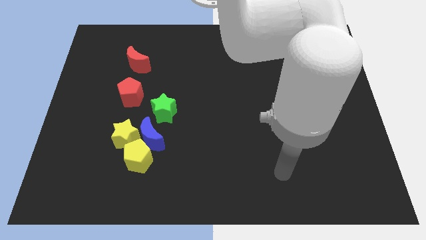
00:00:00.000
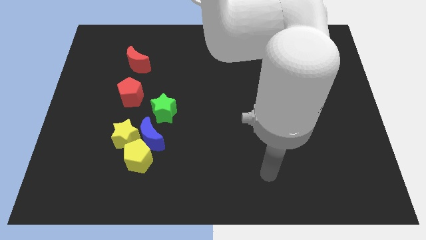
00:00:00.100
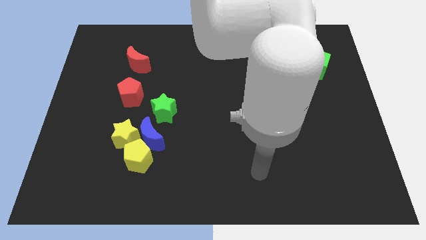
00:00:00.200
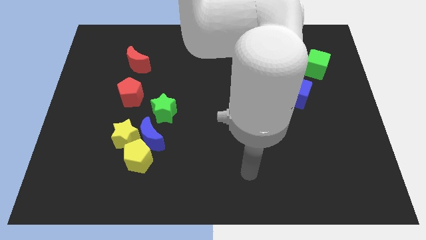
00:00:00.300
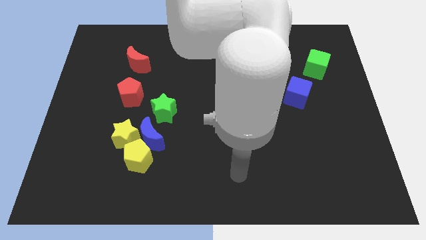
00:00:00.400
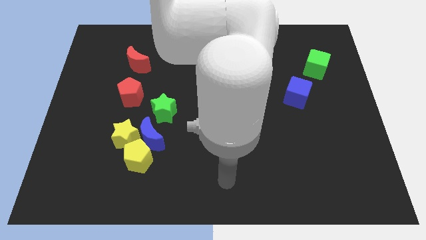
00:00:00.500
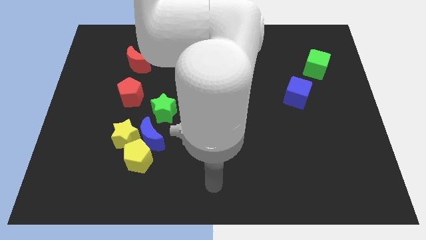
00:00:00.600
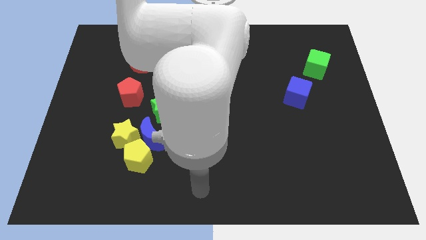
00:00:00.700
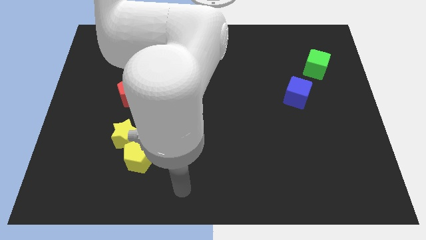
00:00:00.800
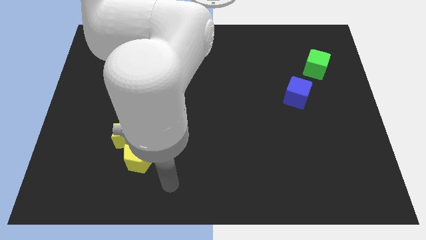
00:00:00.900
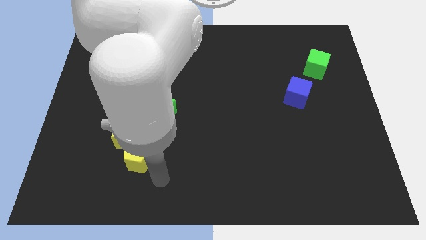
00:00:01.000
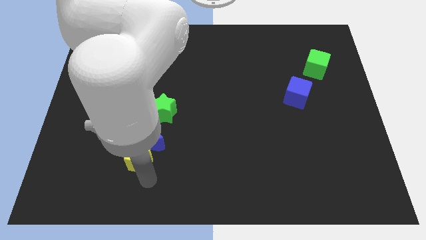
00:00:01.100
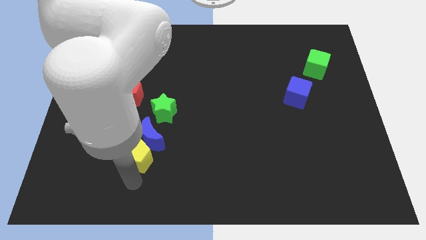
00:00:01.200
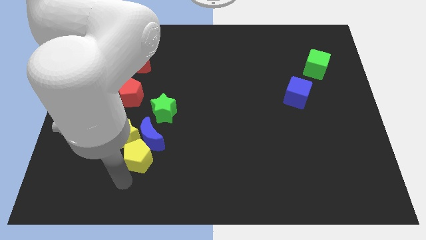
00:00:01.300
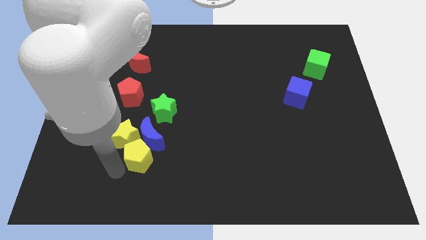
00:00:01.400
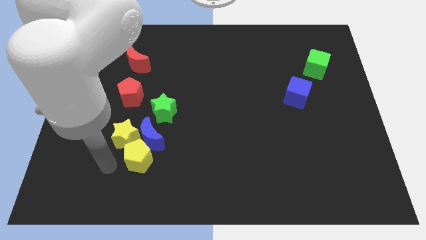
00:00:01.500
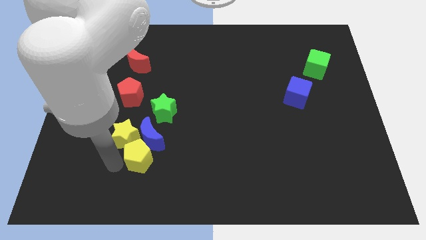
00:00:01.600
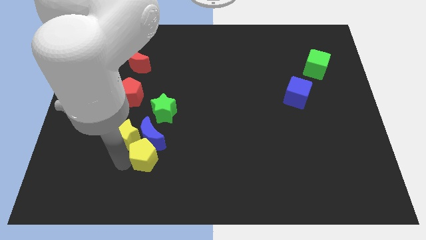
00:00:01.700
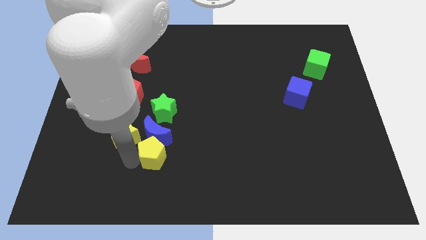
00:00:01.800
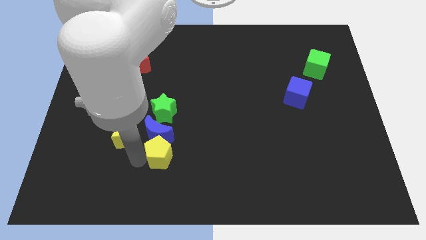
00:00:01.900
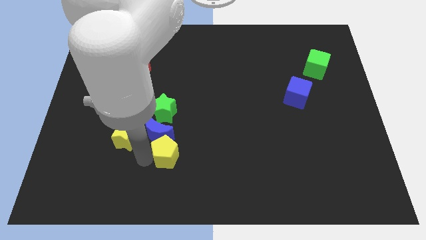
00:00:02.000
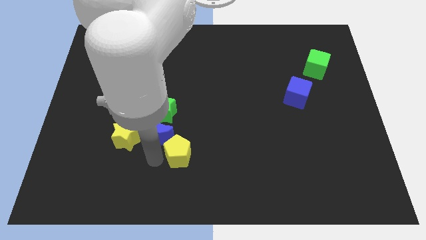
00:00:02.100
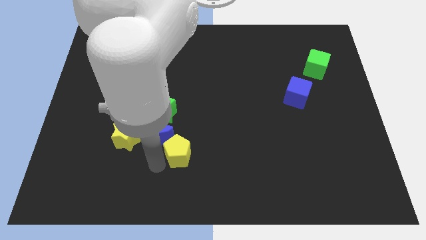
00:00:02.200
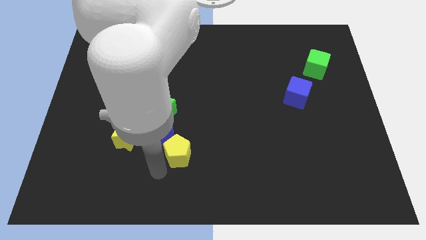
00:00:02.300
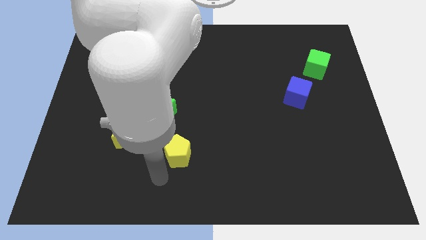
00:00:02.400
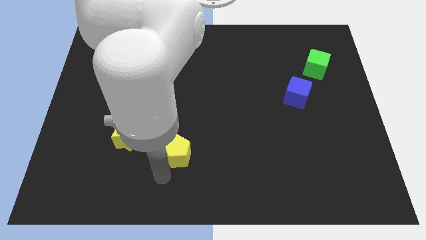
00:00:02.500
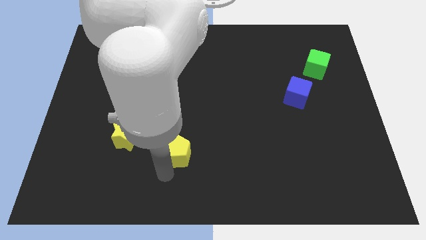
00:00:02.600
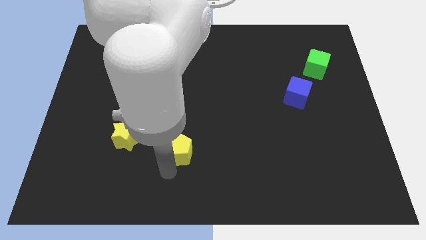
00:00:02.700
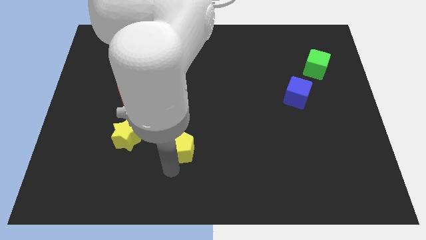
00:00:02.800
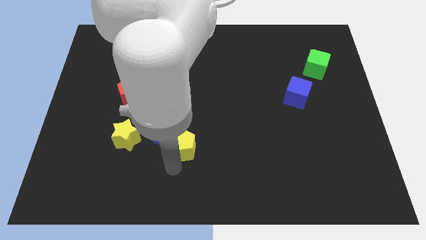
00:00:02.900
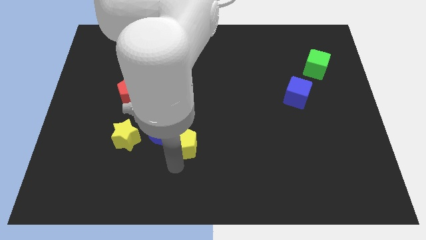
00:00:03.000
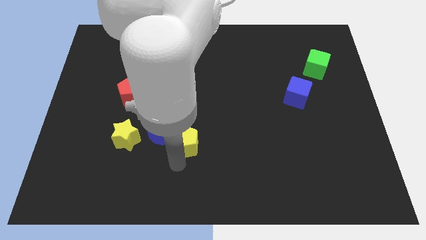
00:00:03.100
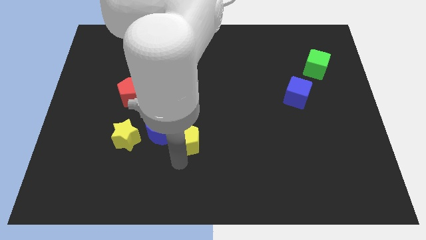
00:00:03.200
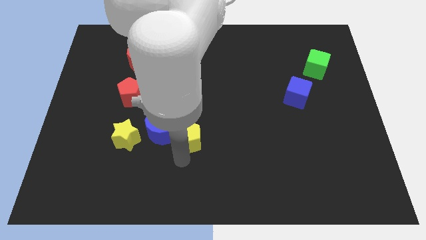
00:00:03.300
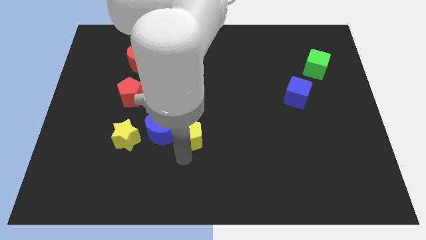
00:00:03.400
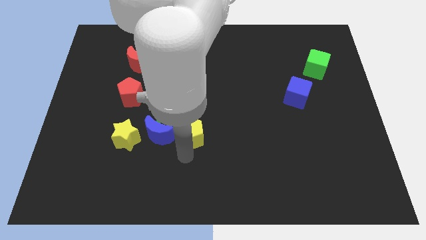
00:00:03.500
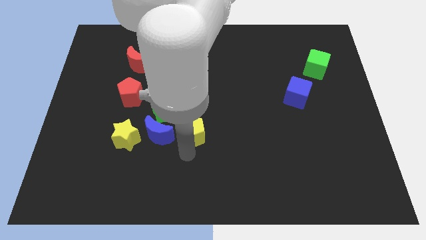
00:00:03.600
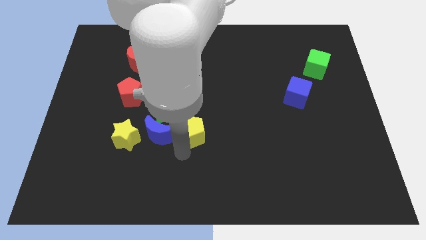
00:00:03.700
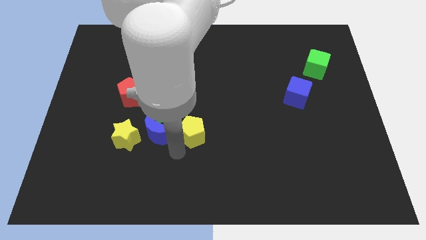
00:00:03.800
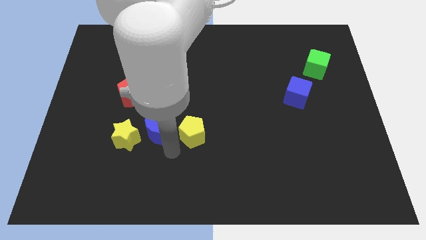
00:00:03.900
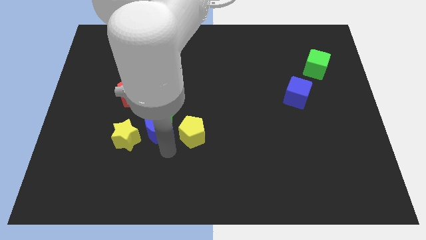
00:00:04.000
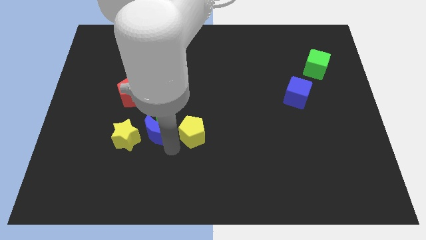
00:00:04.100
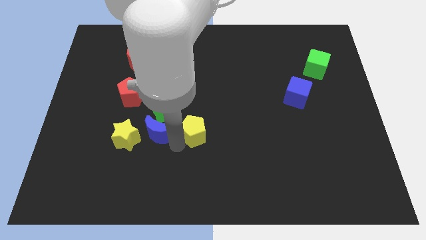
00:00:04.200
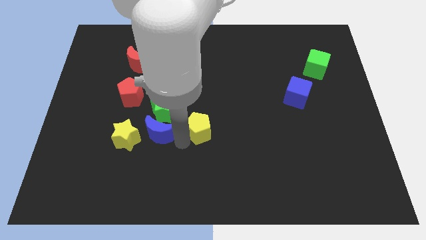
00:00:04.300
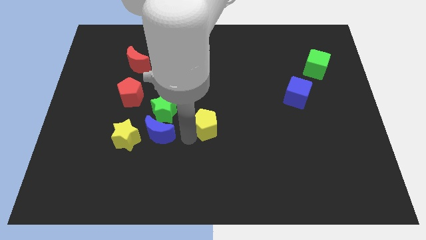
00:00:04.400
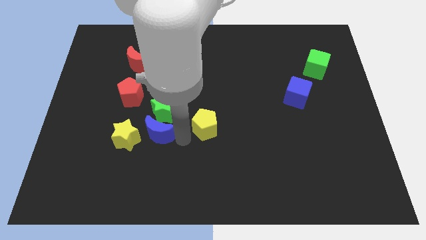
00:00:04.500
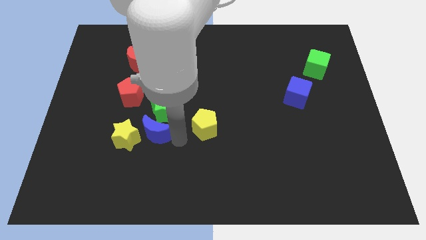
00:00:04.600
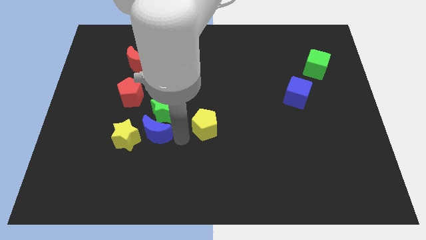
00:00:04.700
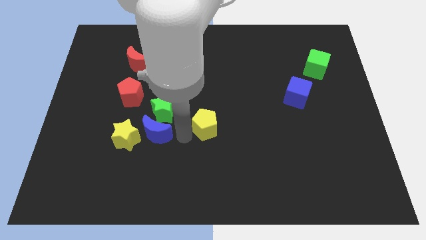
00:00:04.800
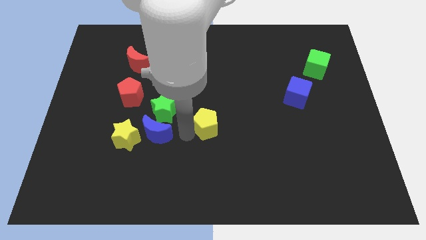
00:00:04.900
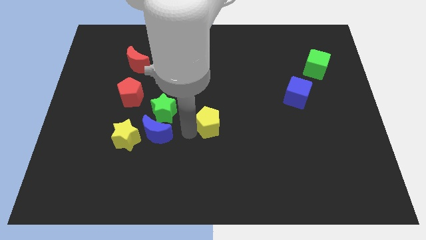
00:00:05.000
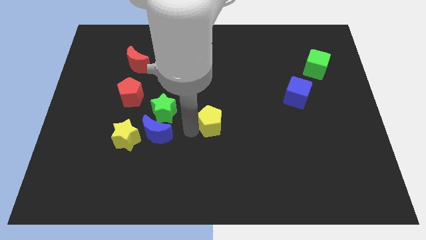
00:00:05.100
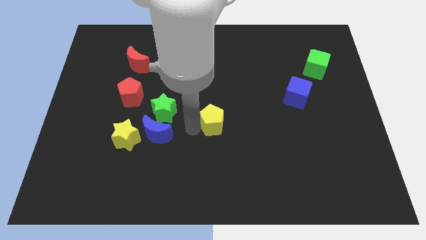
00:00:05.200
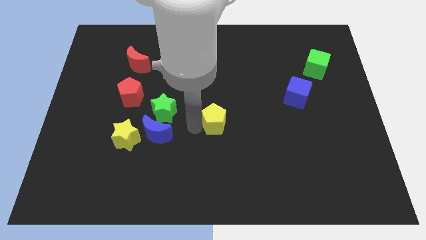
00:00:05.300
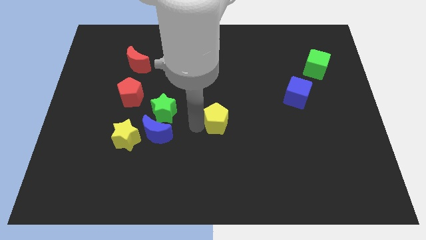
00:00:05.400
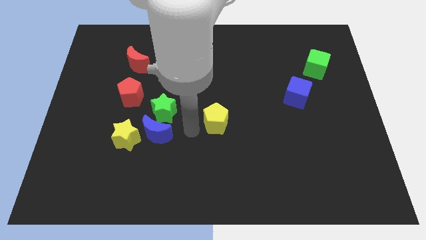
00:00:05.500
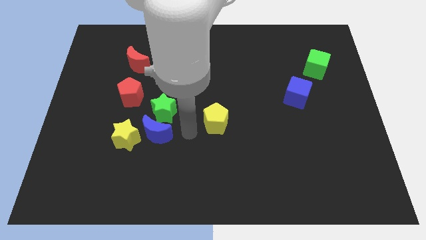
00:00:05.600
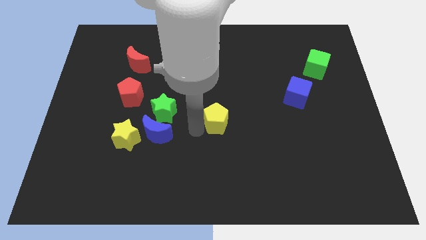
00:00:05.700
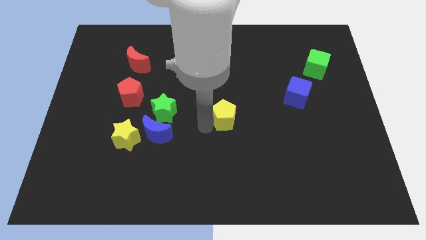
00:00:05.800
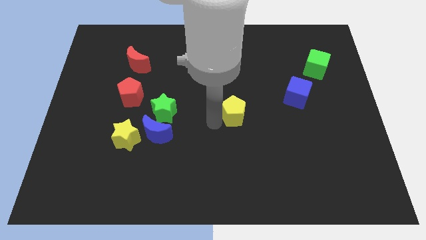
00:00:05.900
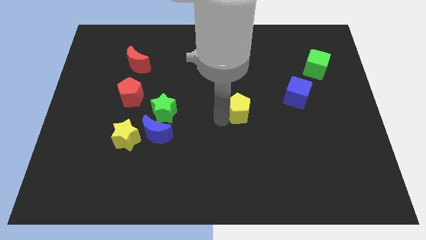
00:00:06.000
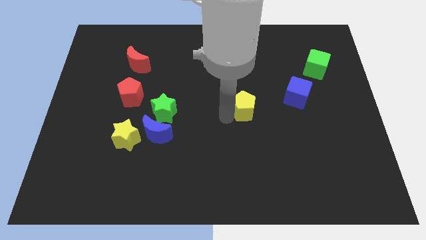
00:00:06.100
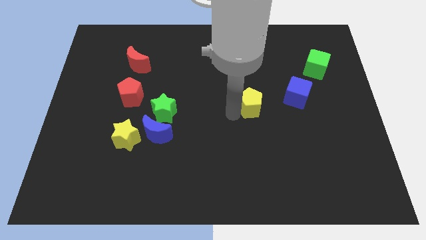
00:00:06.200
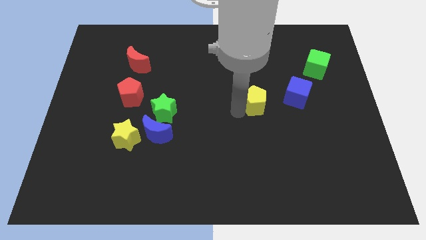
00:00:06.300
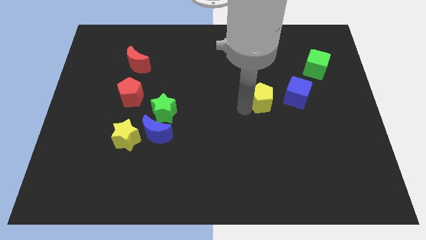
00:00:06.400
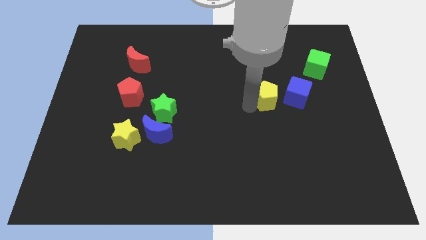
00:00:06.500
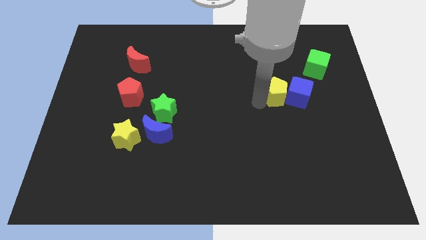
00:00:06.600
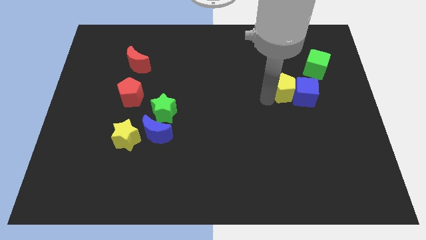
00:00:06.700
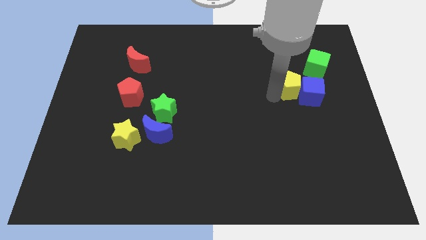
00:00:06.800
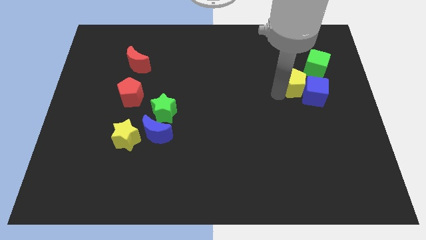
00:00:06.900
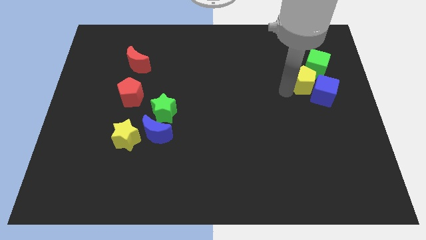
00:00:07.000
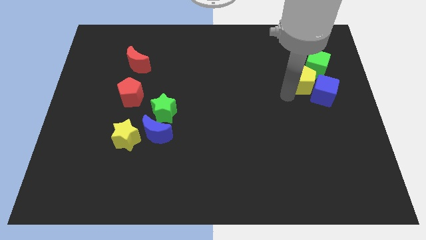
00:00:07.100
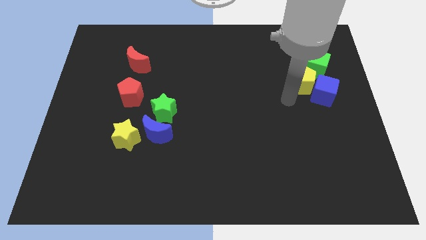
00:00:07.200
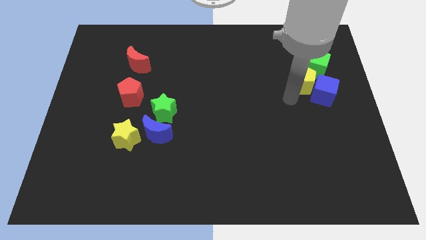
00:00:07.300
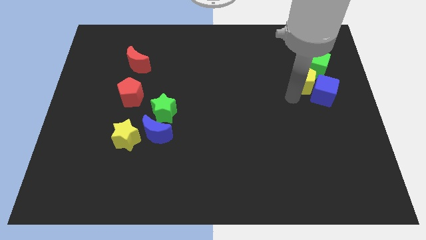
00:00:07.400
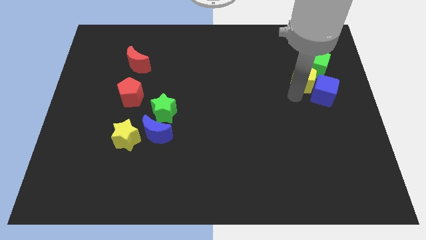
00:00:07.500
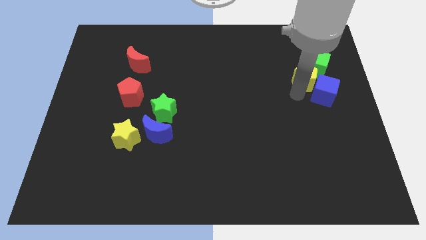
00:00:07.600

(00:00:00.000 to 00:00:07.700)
put the yellow pentagon towards the green cube
